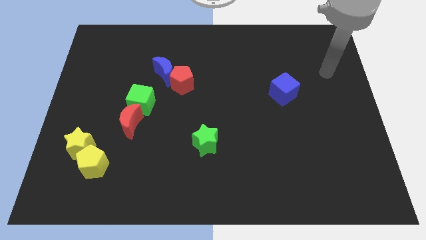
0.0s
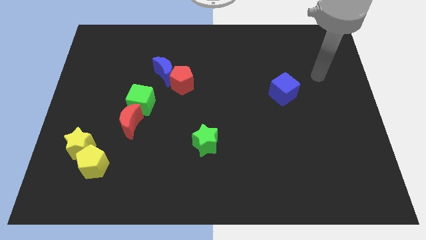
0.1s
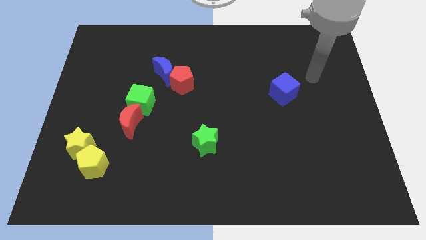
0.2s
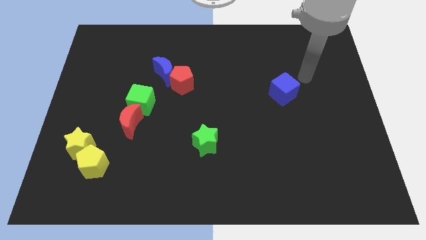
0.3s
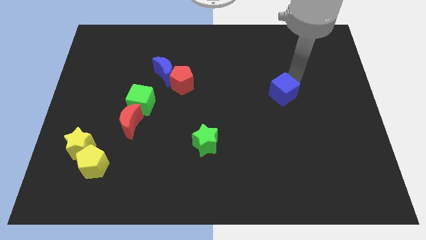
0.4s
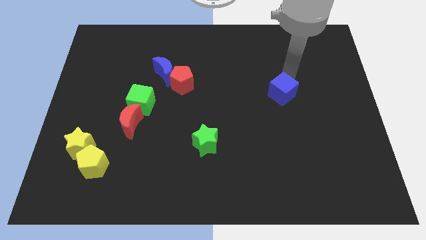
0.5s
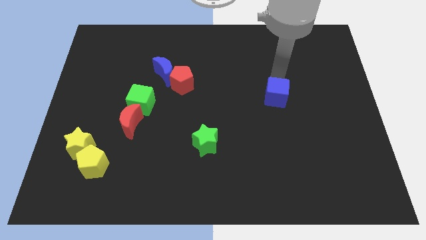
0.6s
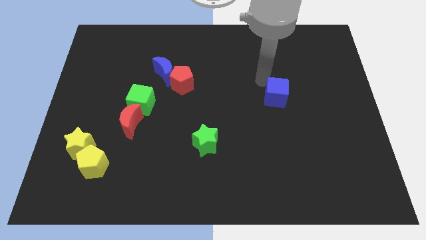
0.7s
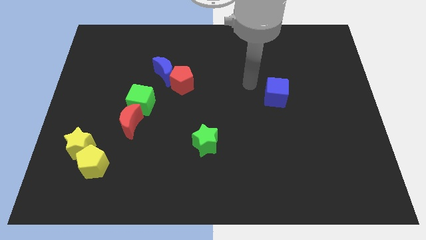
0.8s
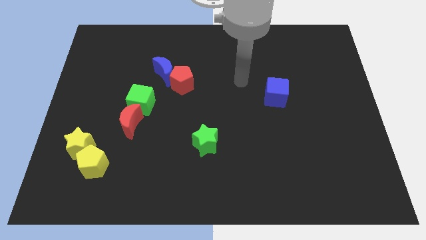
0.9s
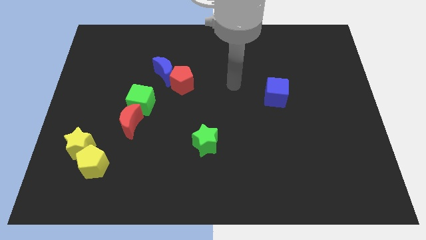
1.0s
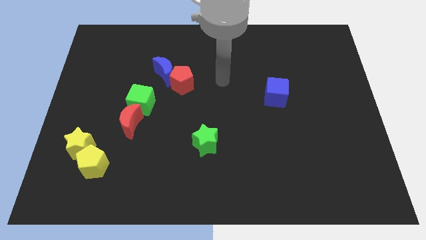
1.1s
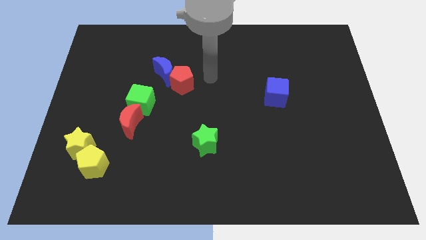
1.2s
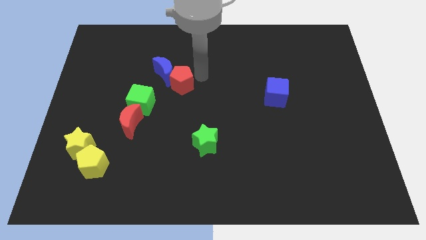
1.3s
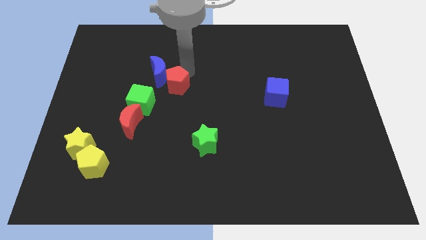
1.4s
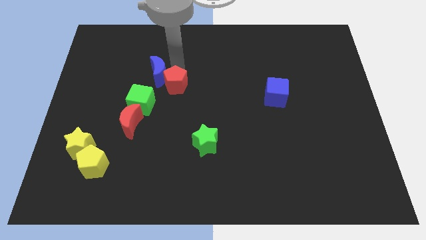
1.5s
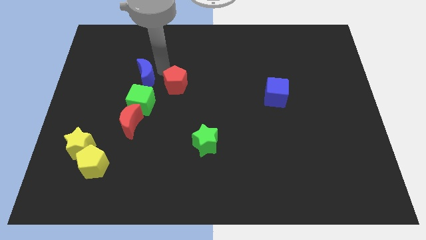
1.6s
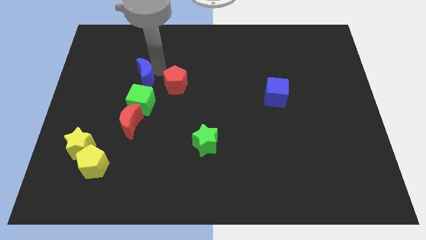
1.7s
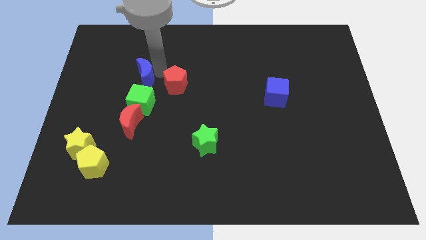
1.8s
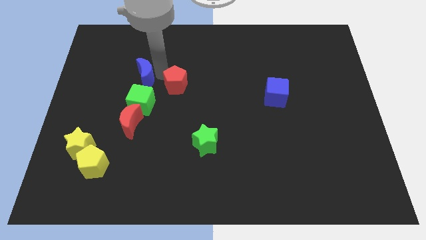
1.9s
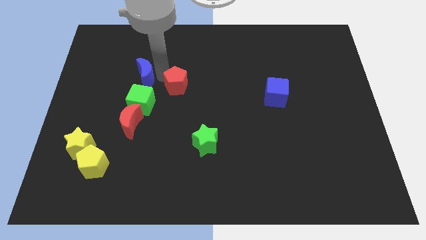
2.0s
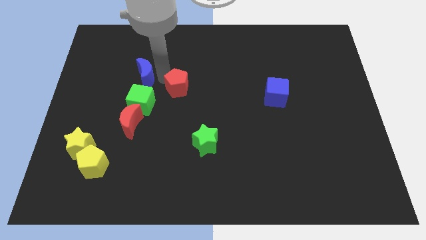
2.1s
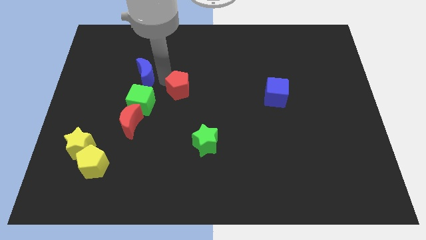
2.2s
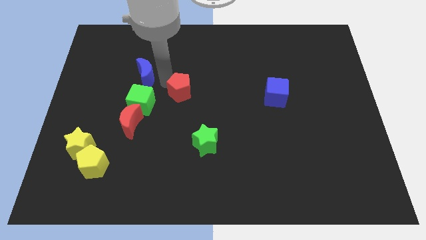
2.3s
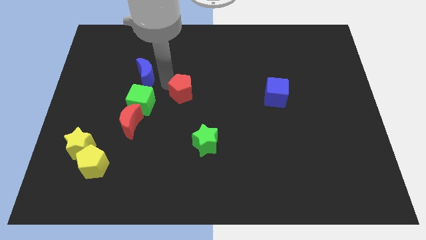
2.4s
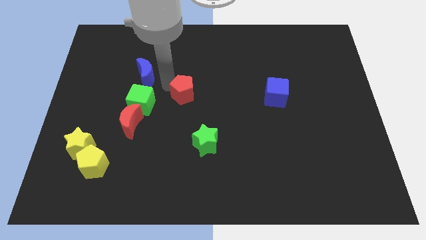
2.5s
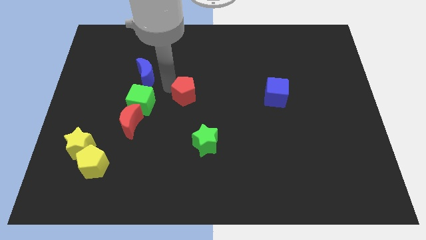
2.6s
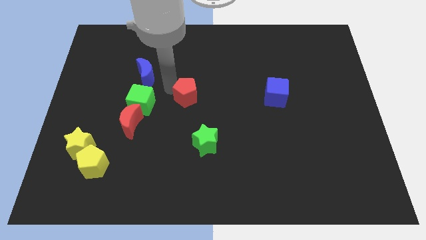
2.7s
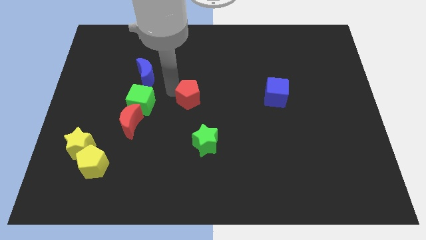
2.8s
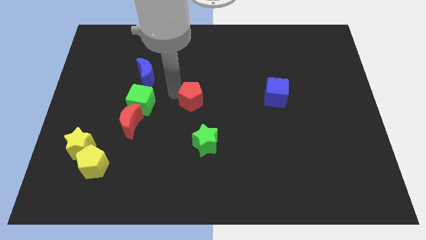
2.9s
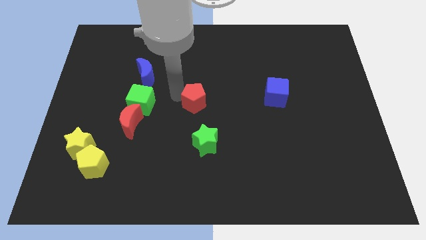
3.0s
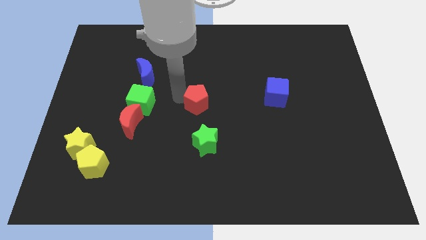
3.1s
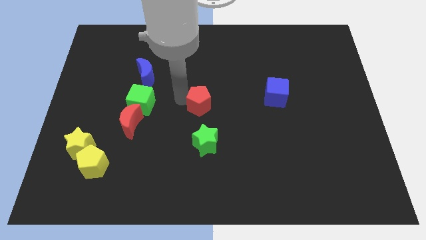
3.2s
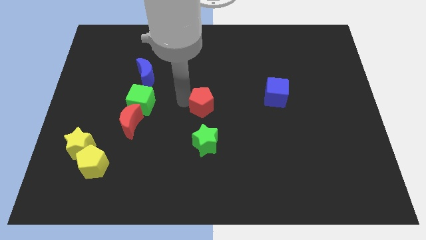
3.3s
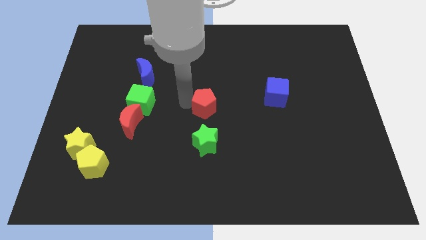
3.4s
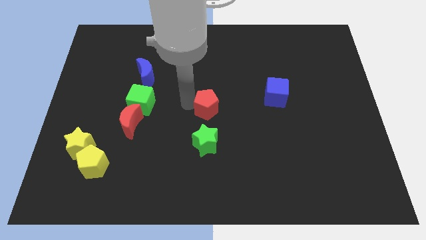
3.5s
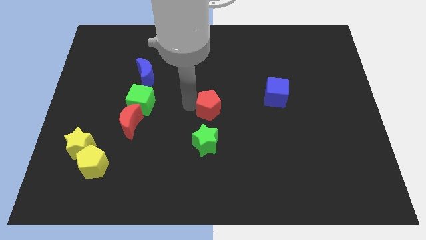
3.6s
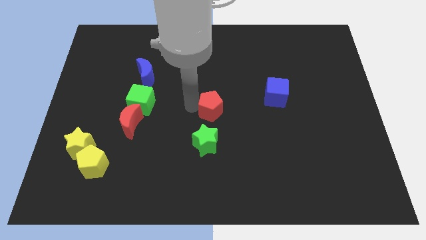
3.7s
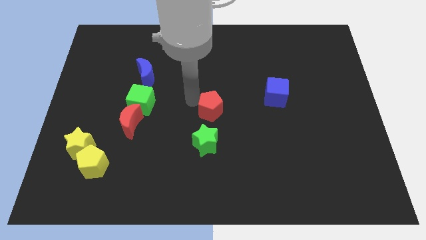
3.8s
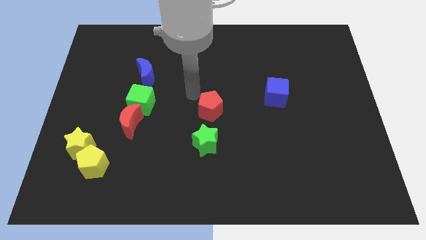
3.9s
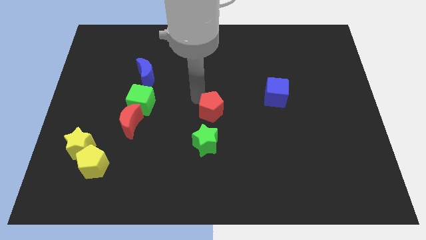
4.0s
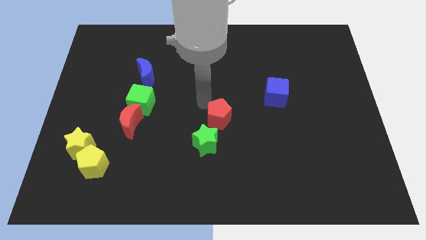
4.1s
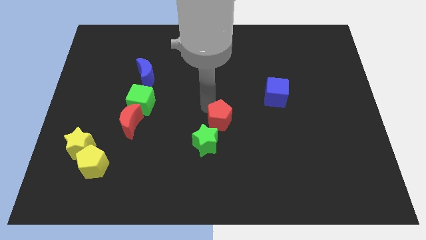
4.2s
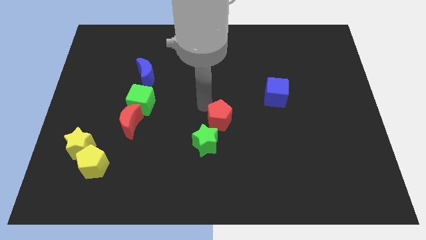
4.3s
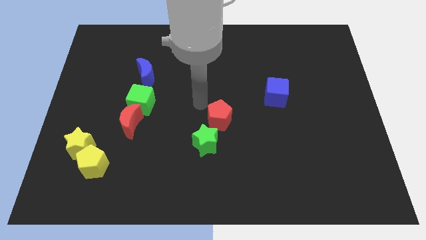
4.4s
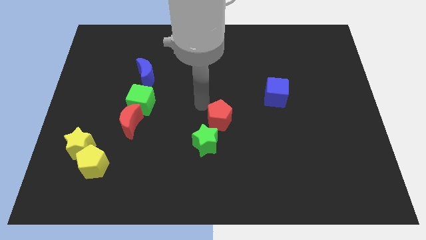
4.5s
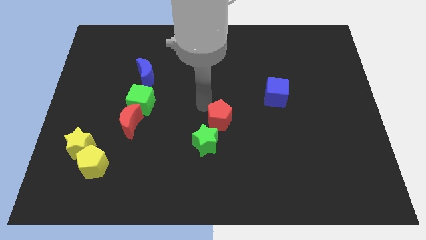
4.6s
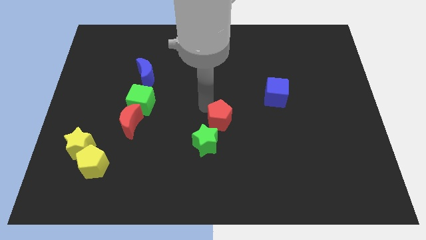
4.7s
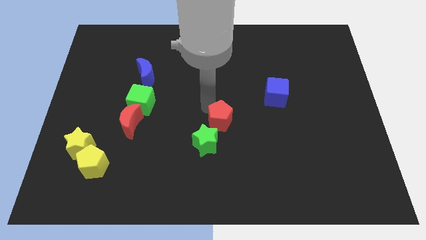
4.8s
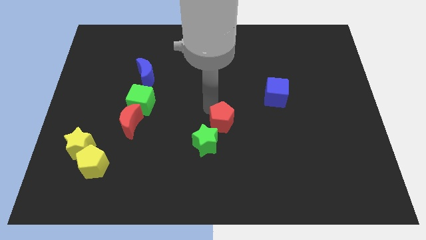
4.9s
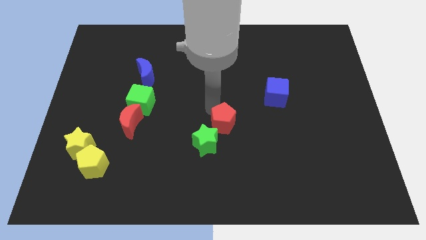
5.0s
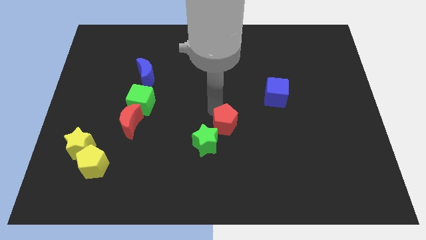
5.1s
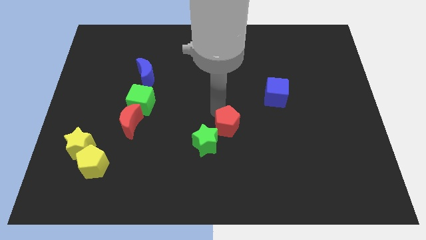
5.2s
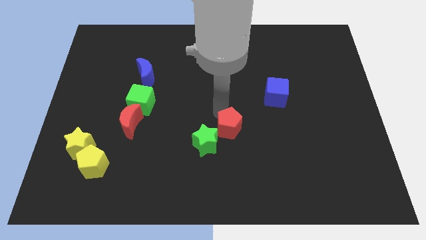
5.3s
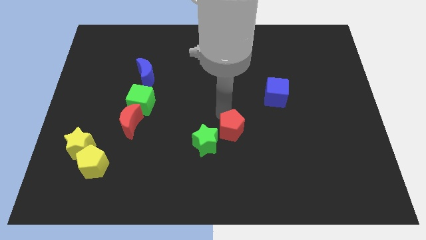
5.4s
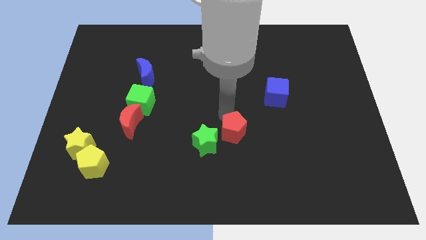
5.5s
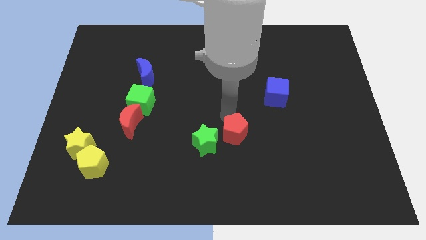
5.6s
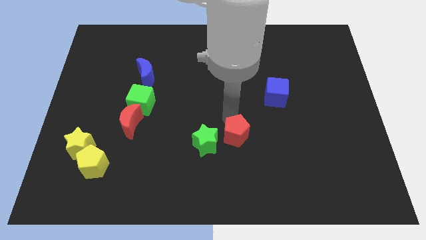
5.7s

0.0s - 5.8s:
move the red pentagon down and then right

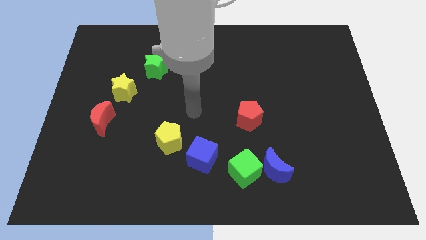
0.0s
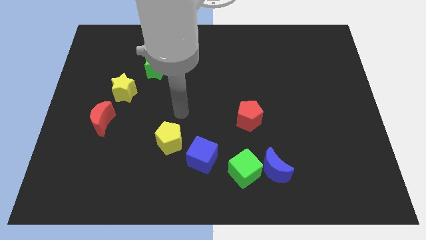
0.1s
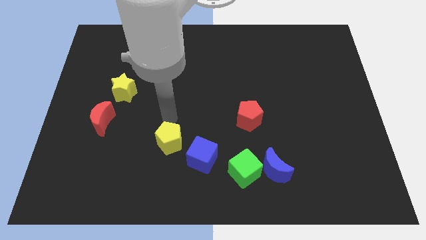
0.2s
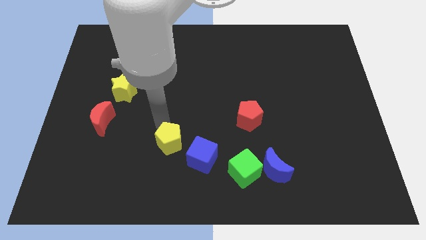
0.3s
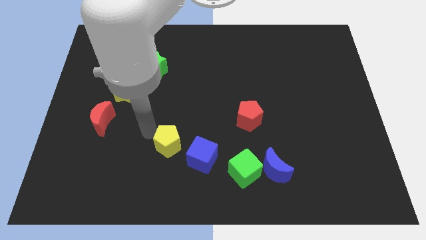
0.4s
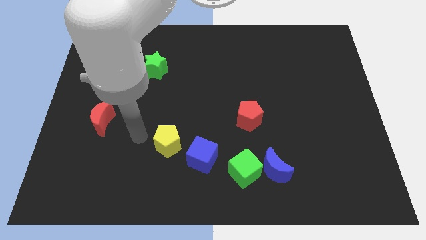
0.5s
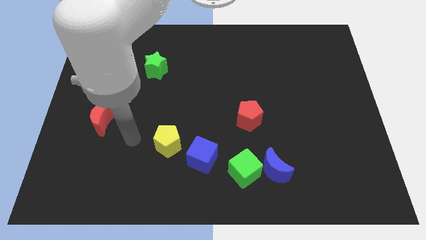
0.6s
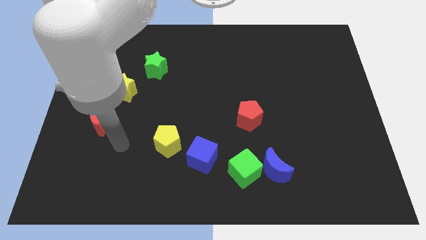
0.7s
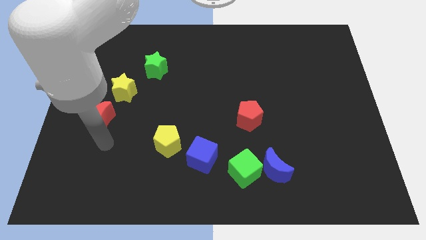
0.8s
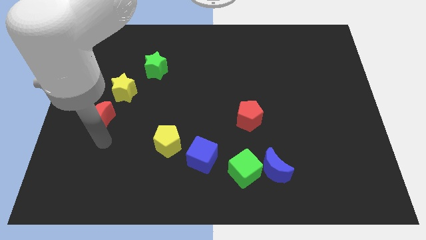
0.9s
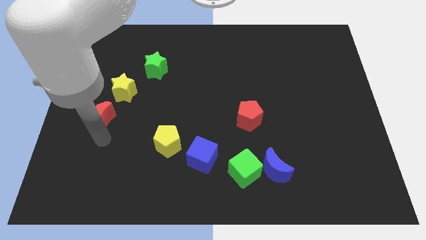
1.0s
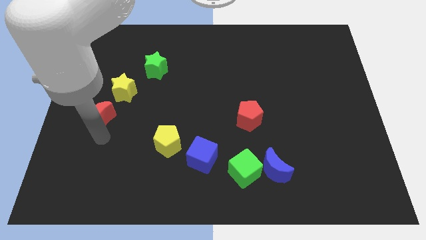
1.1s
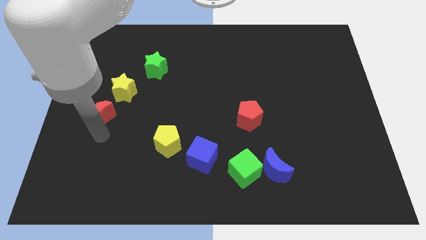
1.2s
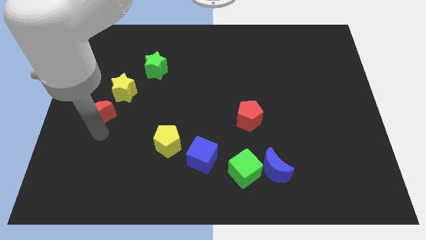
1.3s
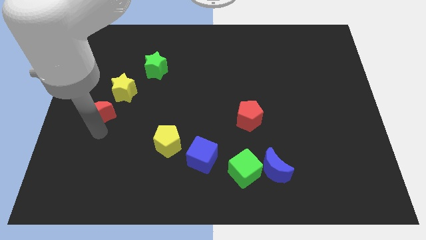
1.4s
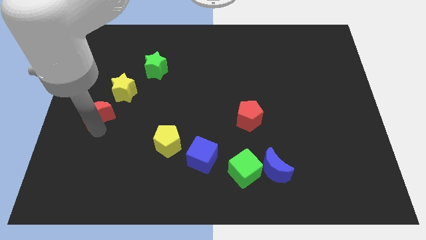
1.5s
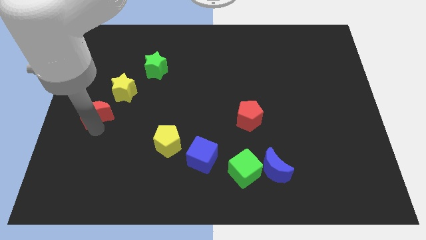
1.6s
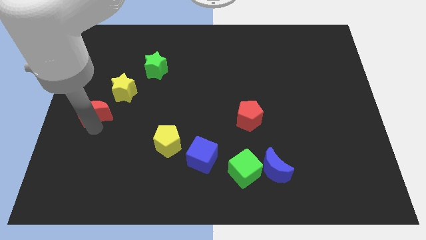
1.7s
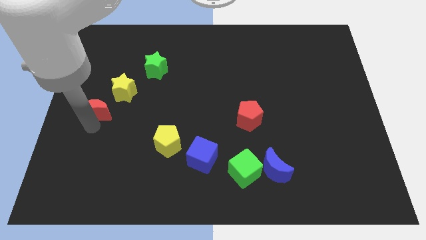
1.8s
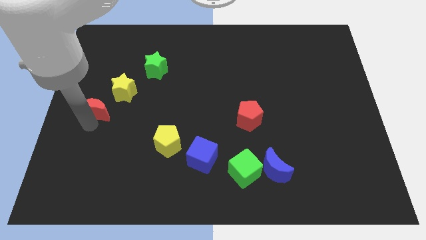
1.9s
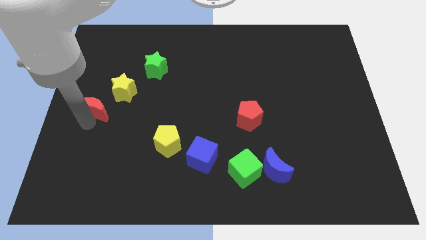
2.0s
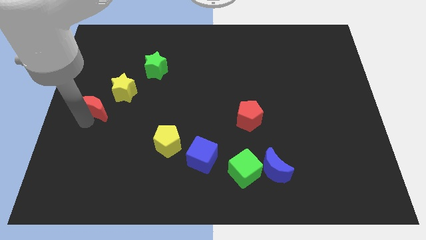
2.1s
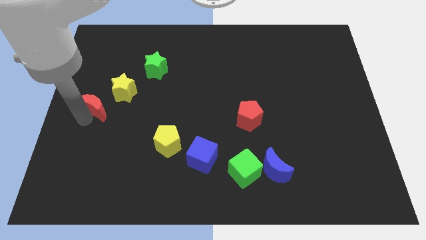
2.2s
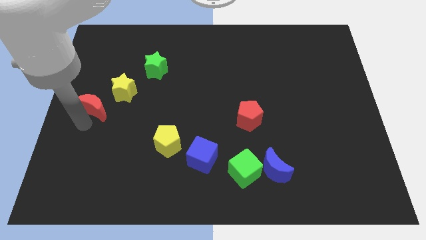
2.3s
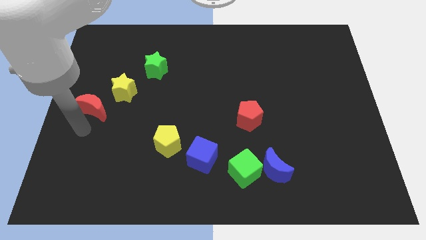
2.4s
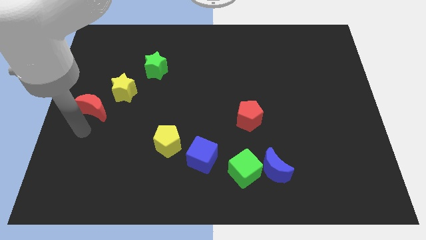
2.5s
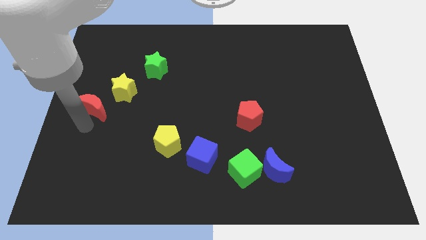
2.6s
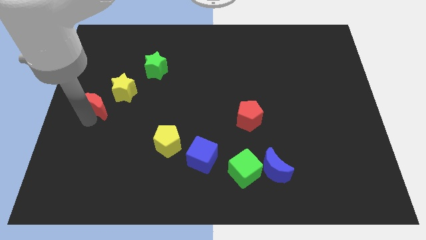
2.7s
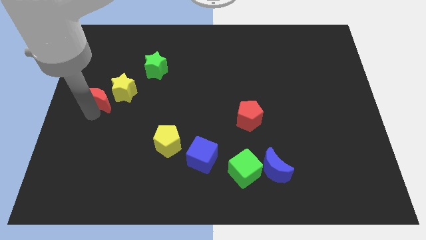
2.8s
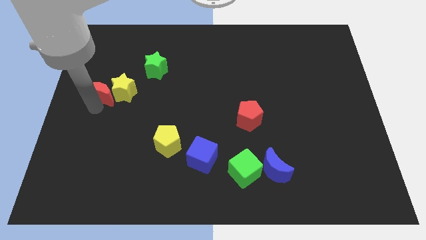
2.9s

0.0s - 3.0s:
slide the red moon a little bit up
